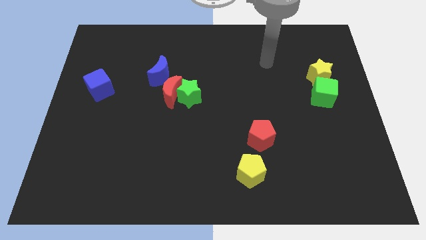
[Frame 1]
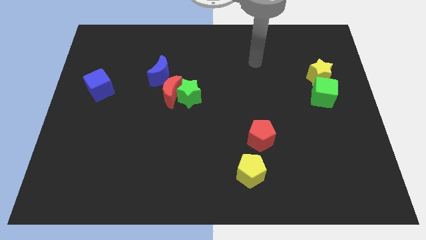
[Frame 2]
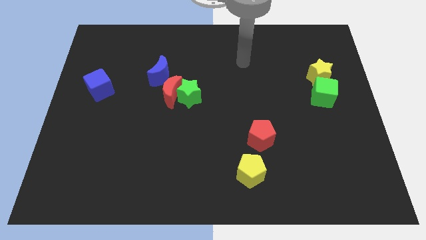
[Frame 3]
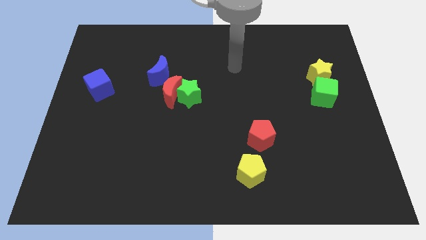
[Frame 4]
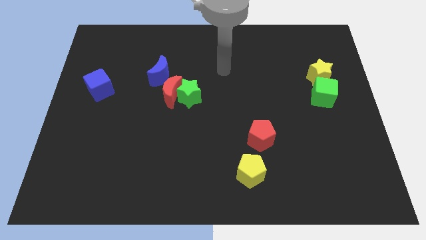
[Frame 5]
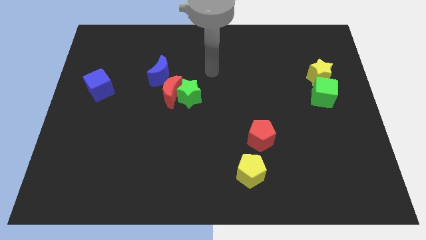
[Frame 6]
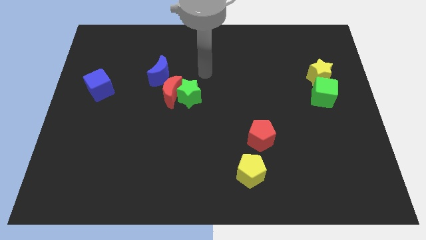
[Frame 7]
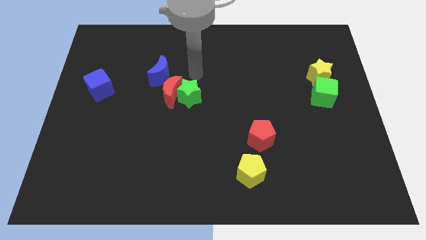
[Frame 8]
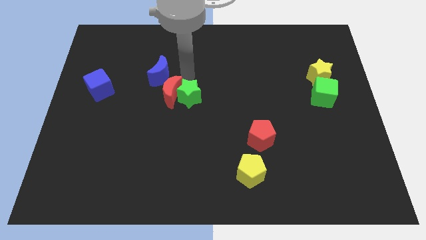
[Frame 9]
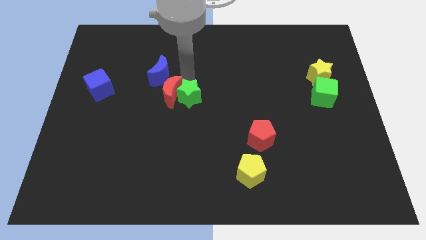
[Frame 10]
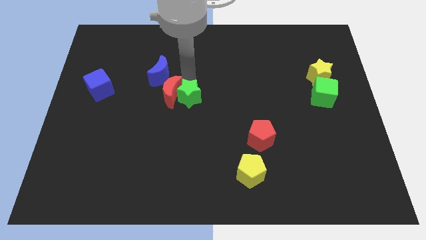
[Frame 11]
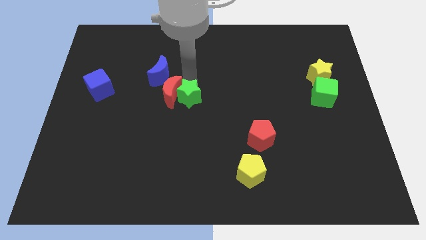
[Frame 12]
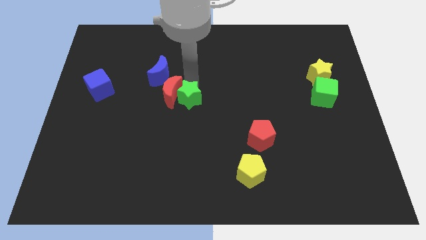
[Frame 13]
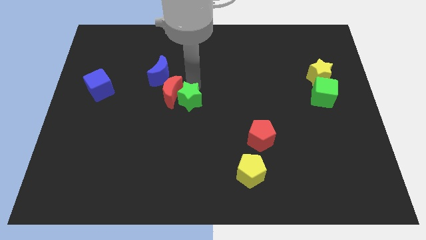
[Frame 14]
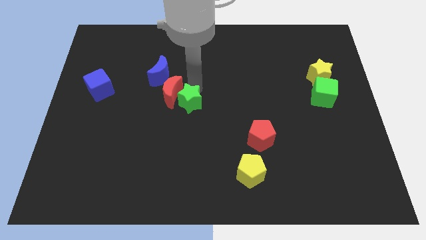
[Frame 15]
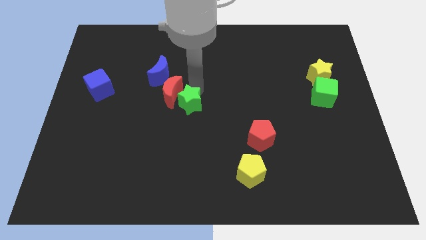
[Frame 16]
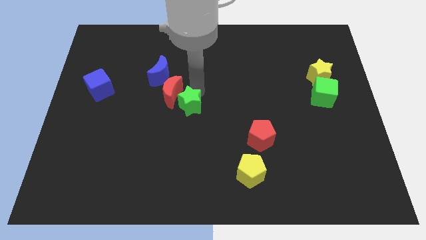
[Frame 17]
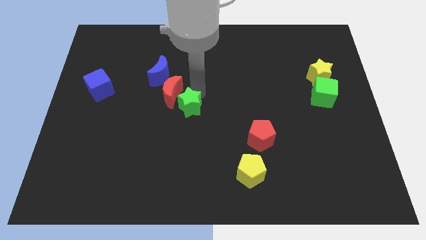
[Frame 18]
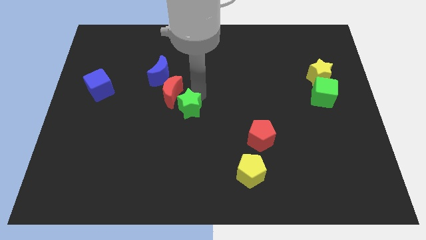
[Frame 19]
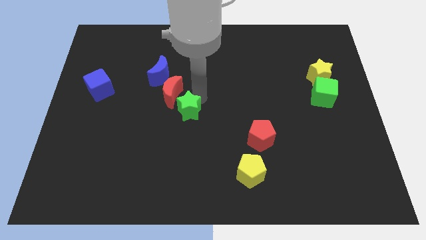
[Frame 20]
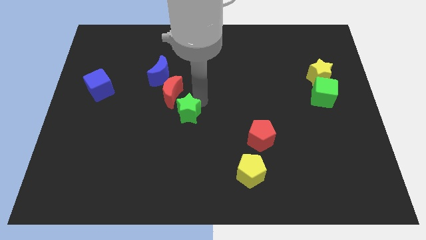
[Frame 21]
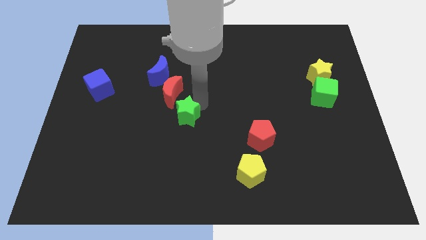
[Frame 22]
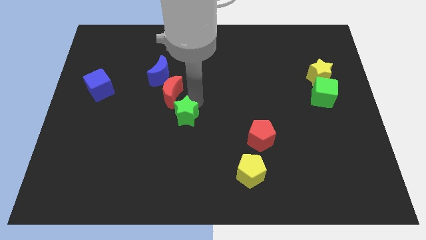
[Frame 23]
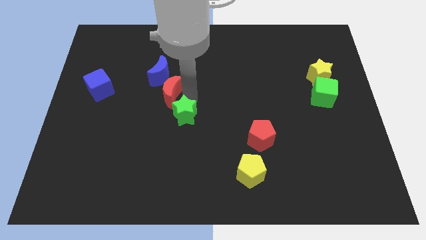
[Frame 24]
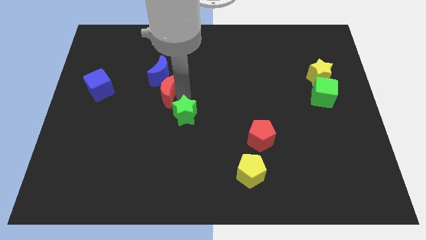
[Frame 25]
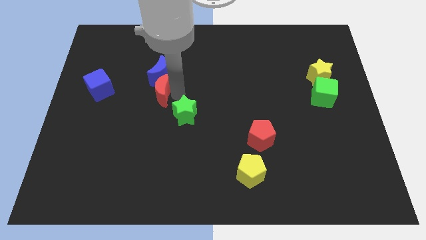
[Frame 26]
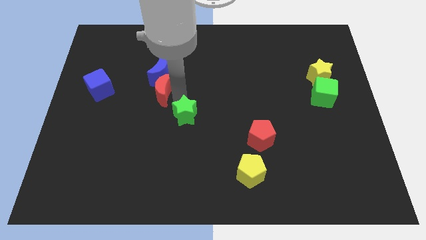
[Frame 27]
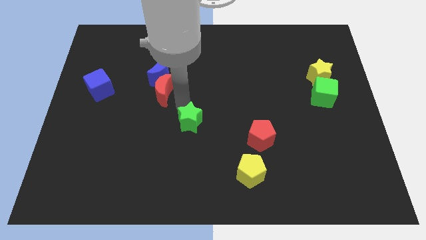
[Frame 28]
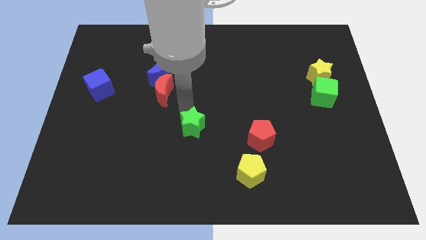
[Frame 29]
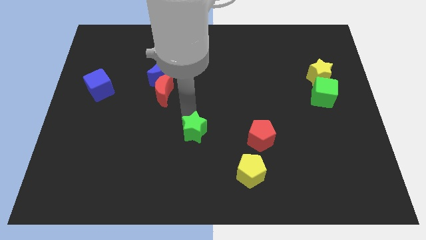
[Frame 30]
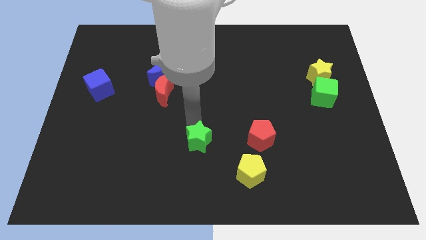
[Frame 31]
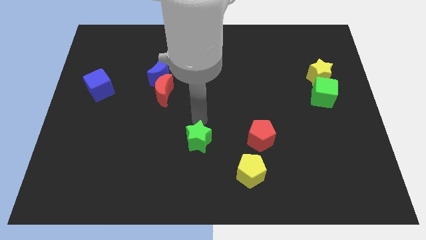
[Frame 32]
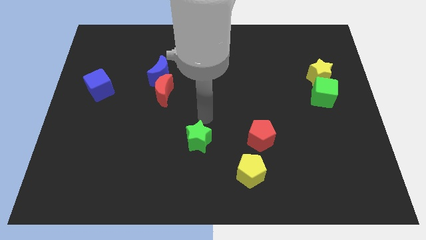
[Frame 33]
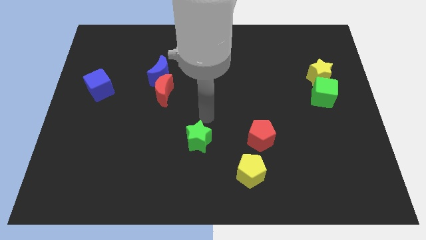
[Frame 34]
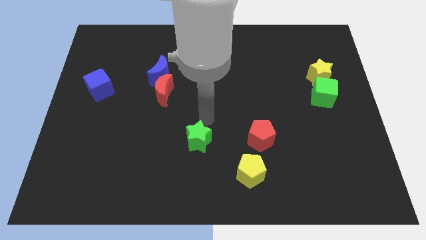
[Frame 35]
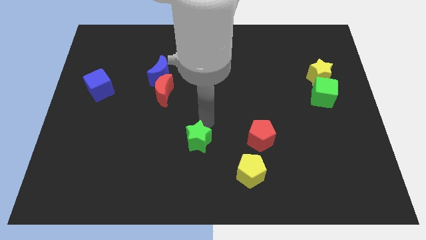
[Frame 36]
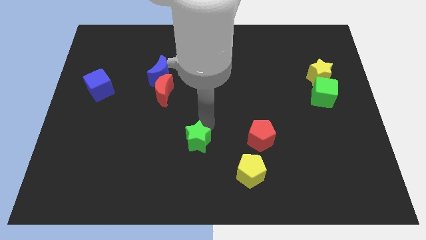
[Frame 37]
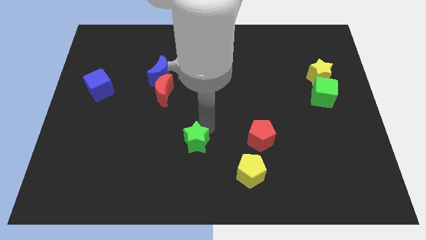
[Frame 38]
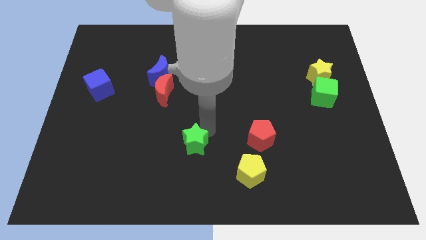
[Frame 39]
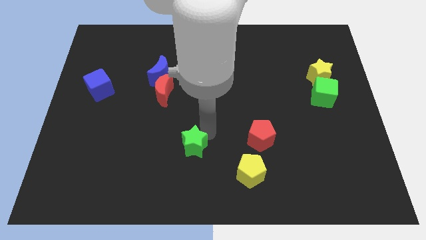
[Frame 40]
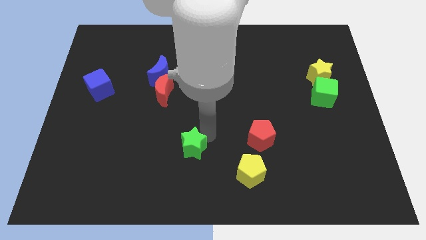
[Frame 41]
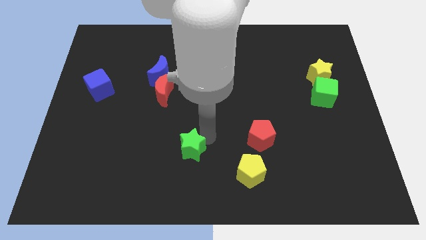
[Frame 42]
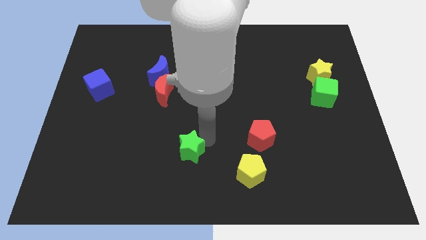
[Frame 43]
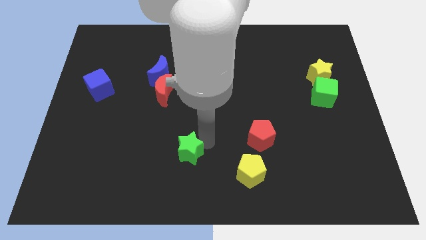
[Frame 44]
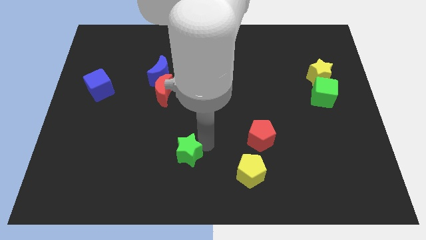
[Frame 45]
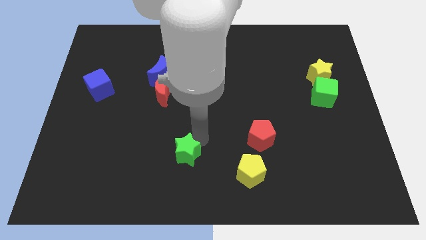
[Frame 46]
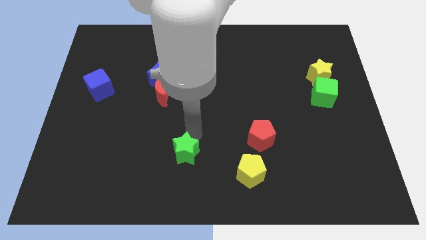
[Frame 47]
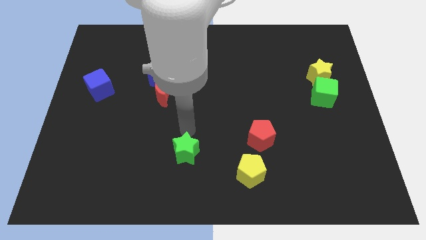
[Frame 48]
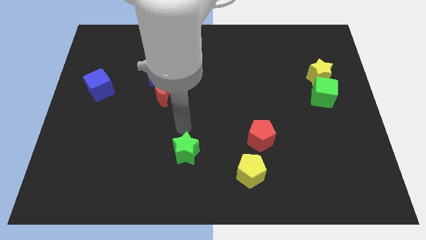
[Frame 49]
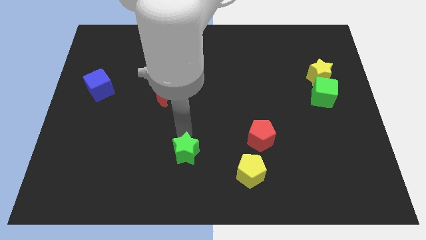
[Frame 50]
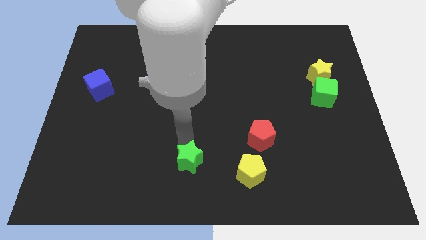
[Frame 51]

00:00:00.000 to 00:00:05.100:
push the green star to the bottom side

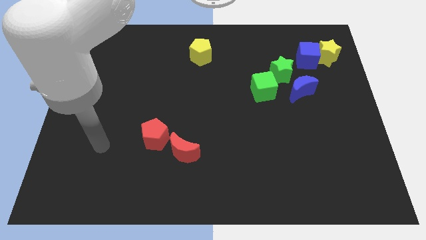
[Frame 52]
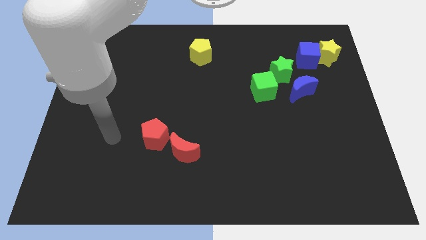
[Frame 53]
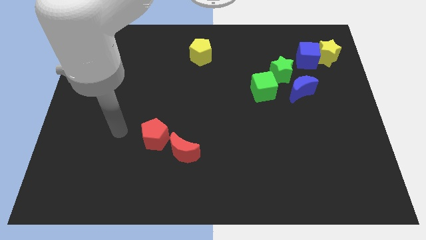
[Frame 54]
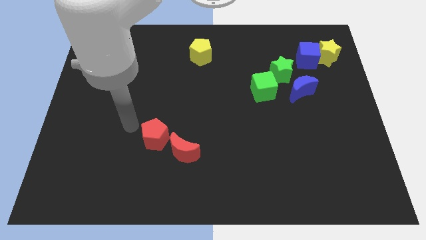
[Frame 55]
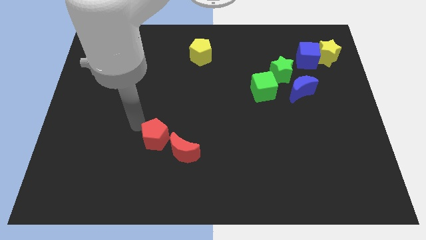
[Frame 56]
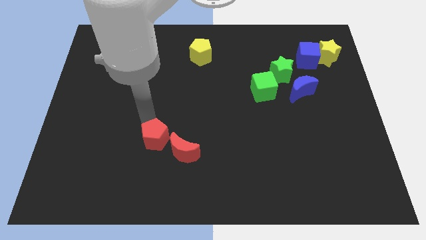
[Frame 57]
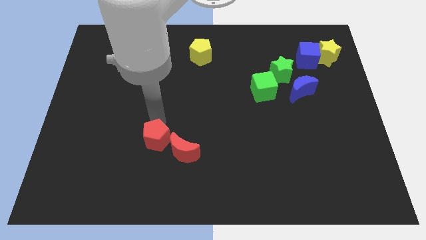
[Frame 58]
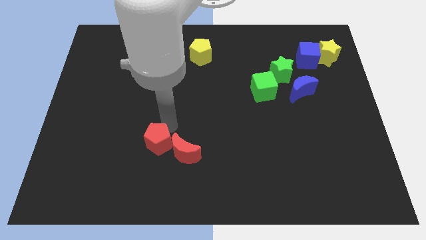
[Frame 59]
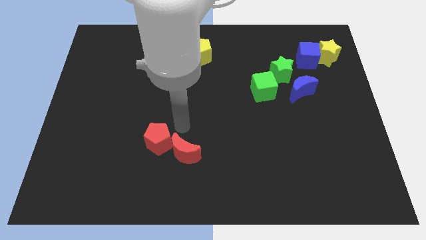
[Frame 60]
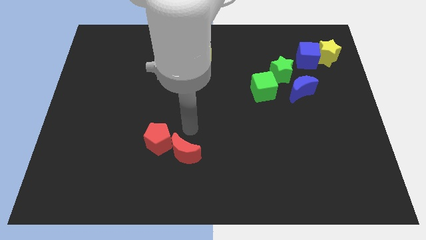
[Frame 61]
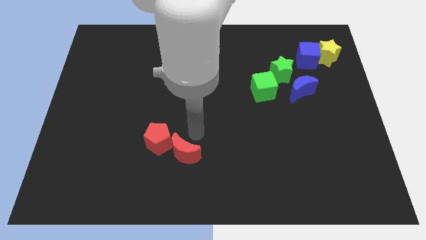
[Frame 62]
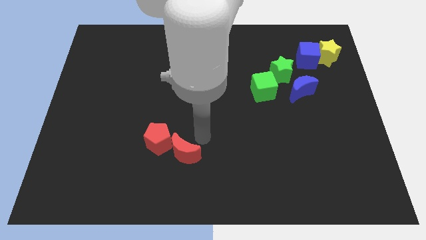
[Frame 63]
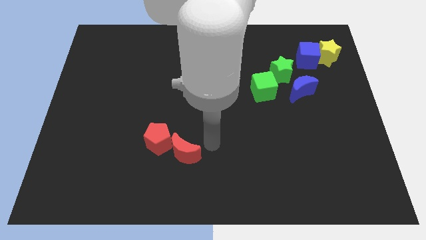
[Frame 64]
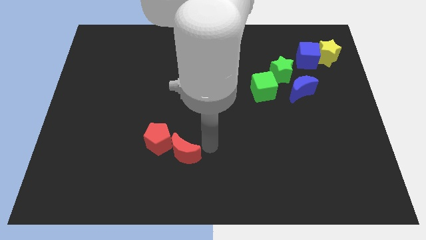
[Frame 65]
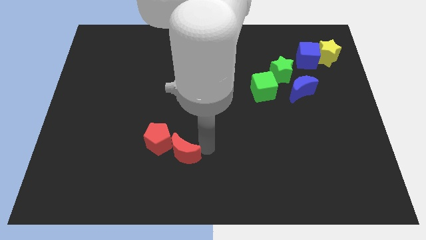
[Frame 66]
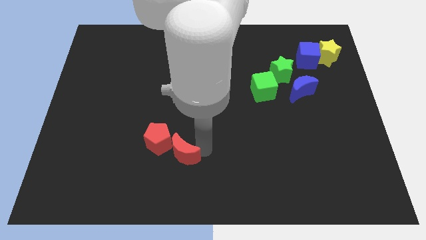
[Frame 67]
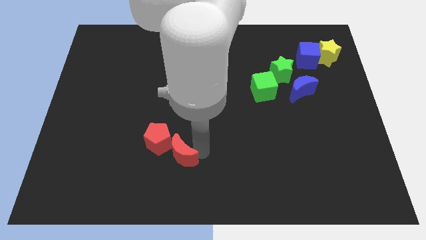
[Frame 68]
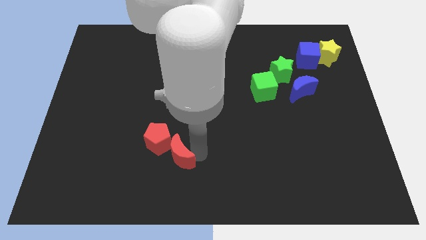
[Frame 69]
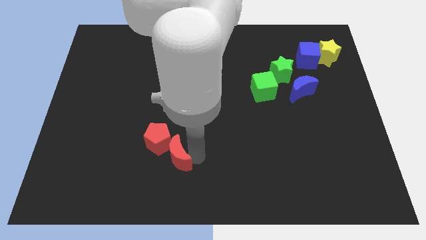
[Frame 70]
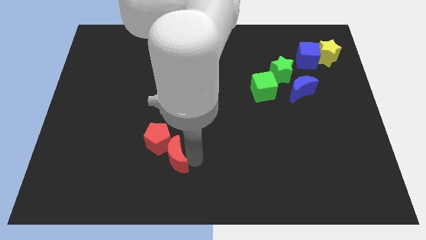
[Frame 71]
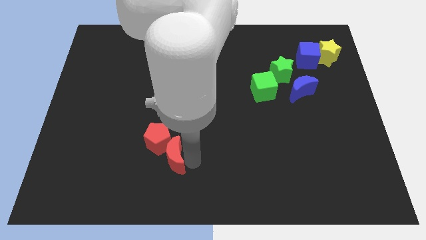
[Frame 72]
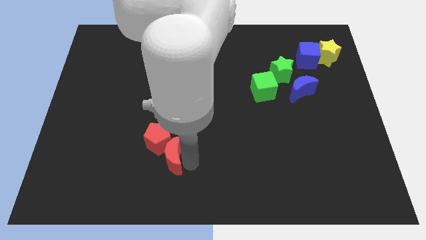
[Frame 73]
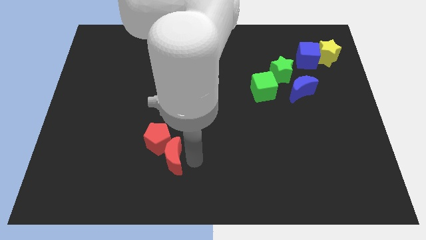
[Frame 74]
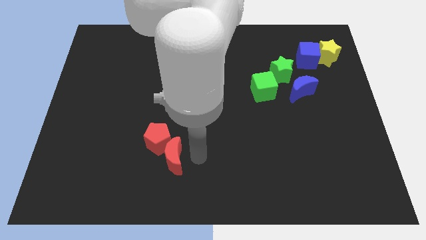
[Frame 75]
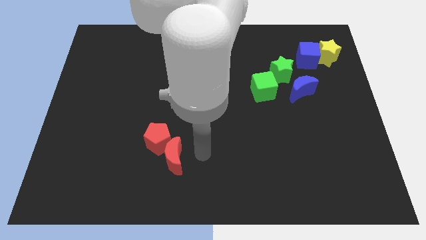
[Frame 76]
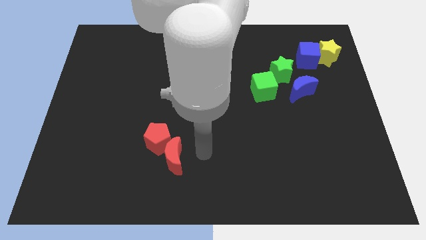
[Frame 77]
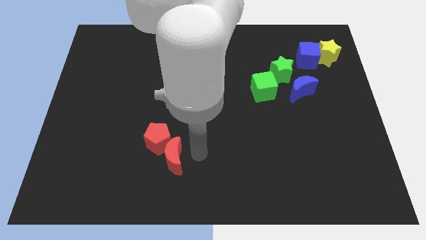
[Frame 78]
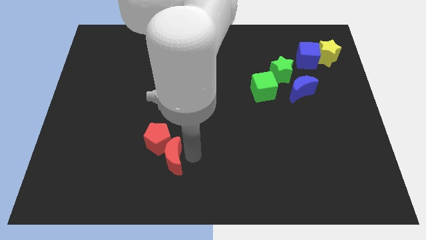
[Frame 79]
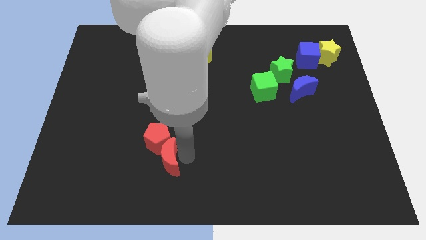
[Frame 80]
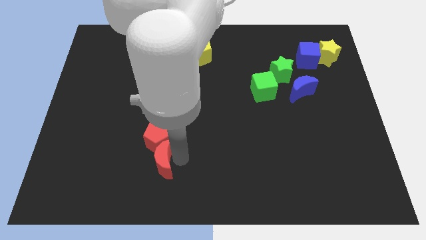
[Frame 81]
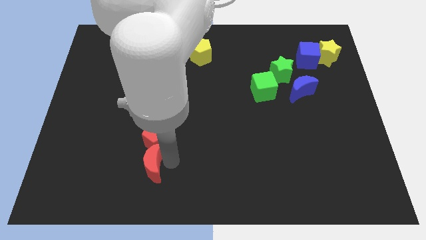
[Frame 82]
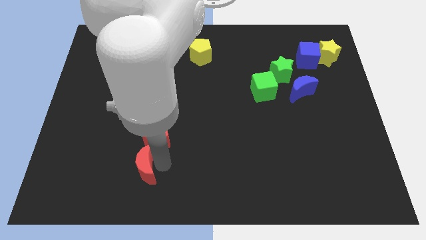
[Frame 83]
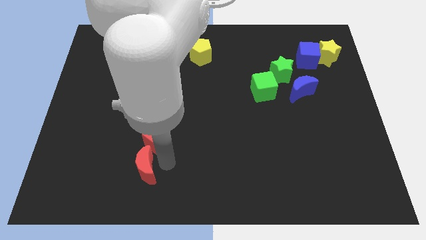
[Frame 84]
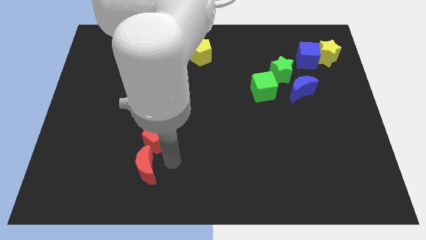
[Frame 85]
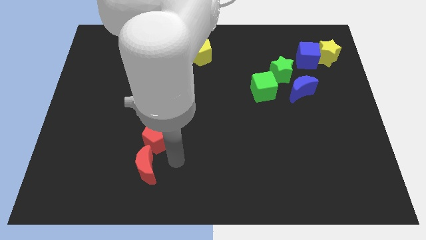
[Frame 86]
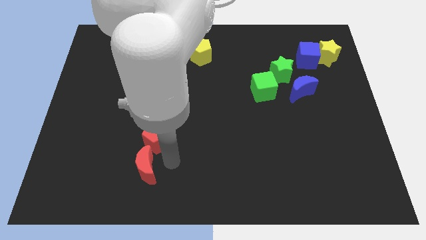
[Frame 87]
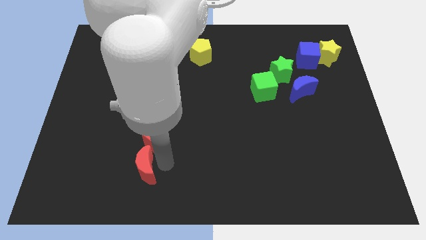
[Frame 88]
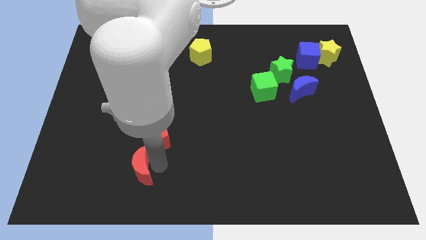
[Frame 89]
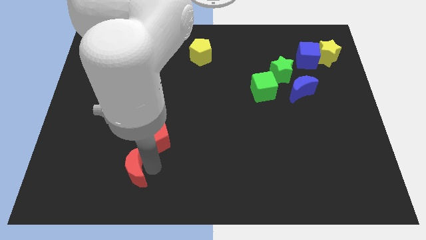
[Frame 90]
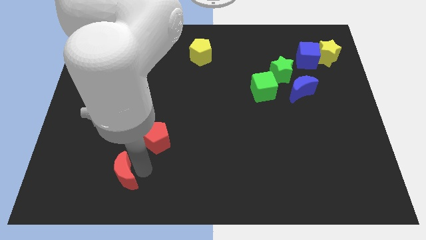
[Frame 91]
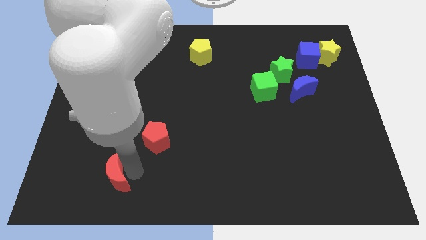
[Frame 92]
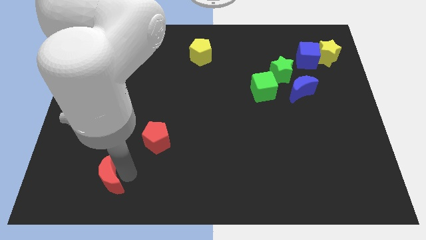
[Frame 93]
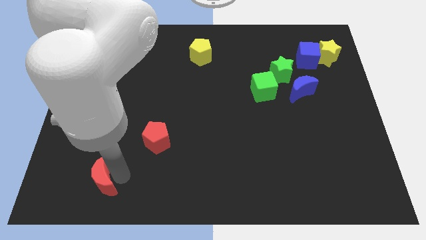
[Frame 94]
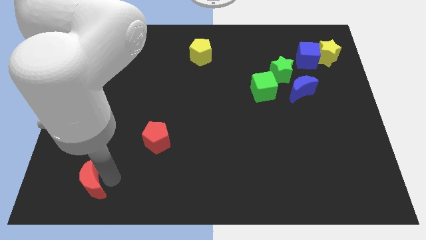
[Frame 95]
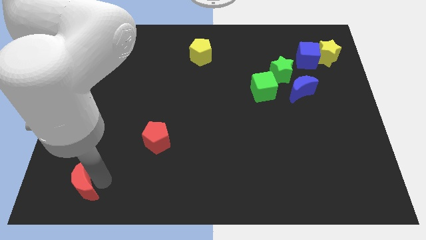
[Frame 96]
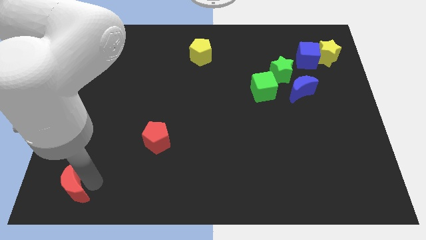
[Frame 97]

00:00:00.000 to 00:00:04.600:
push the red moon to the bottom left
